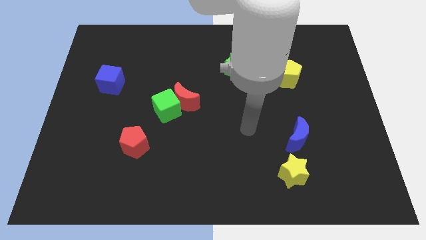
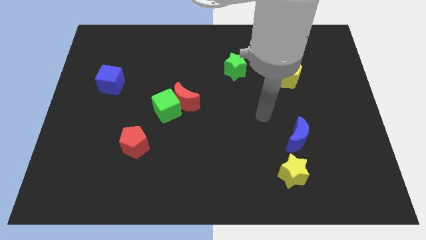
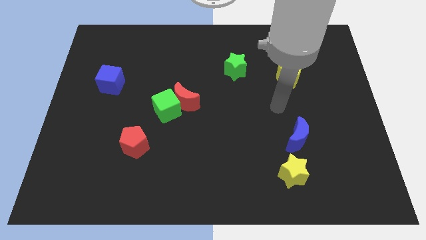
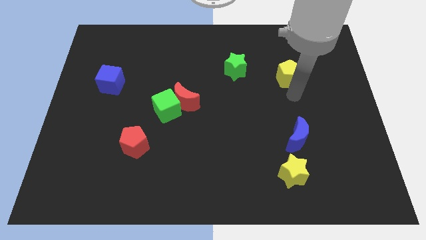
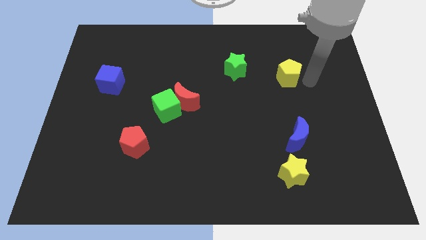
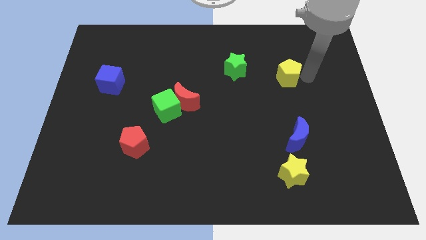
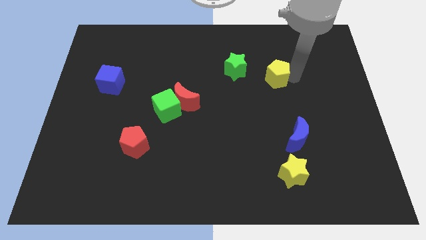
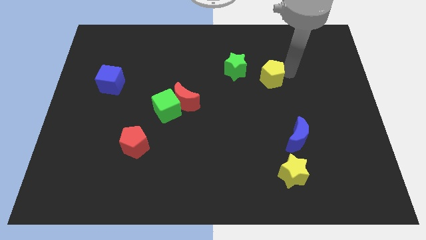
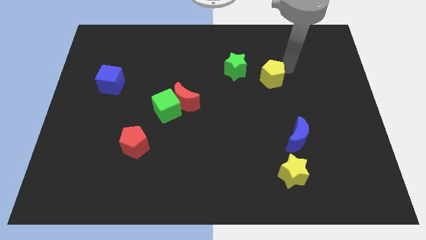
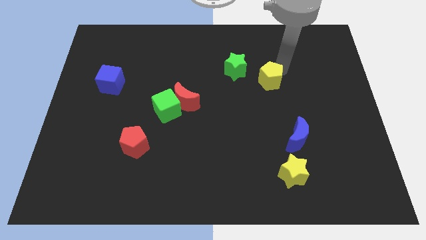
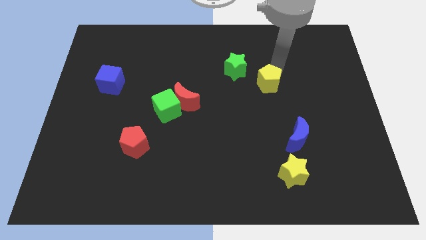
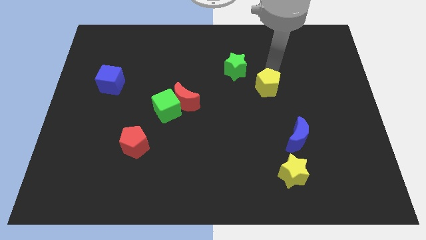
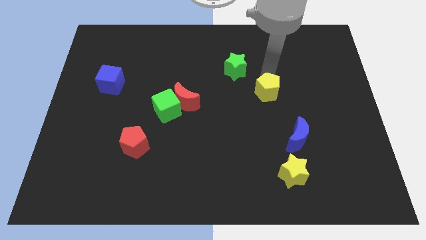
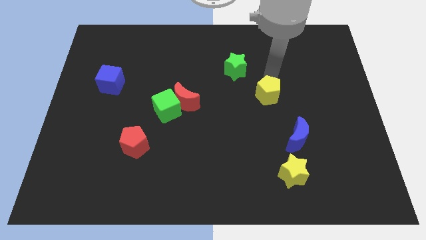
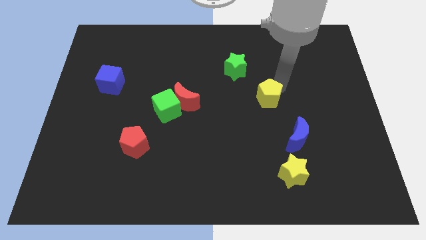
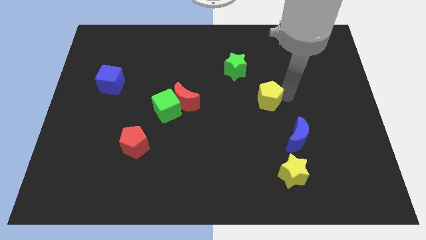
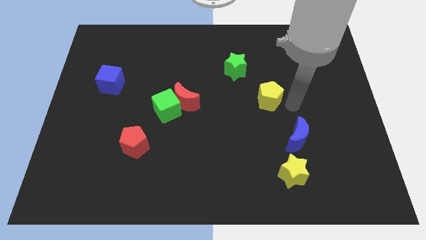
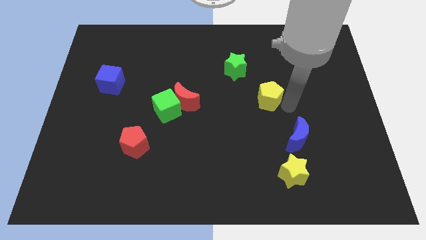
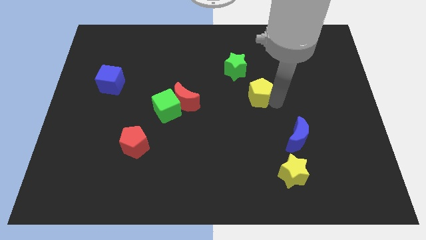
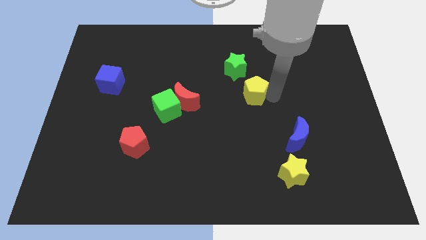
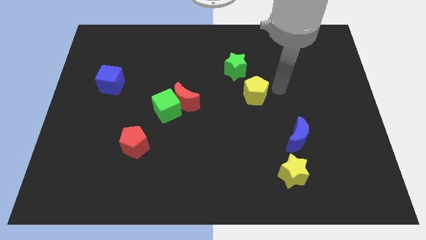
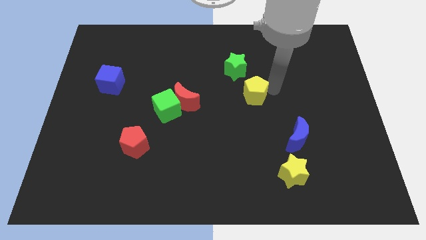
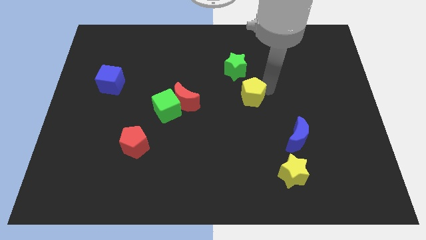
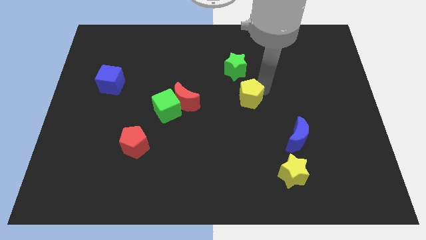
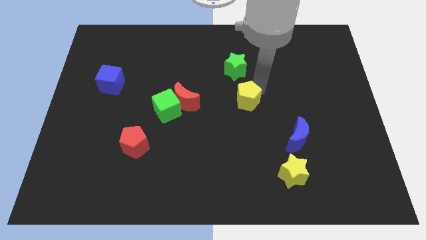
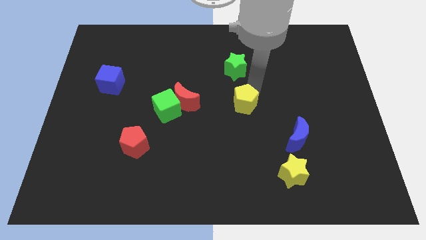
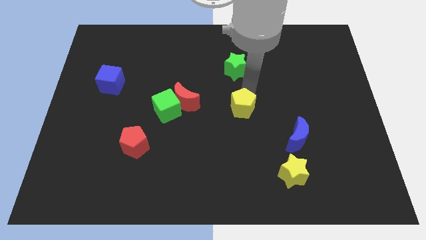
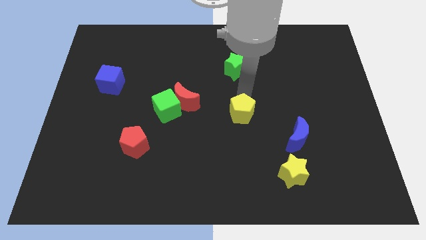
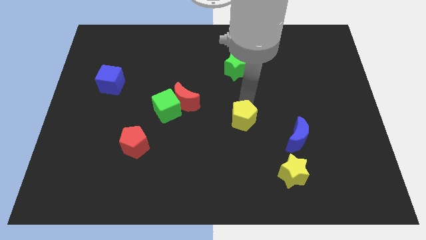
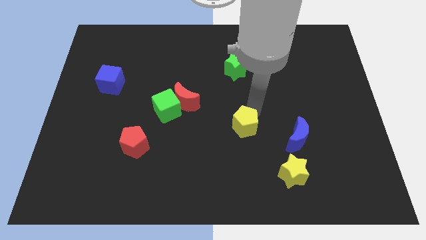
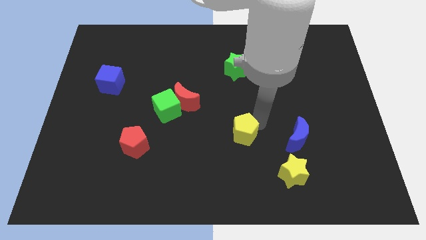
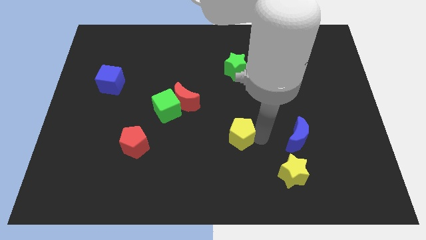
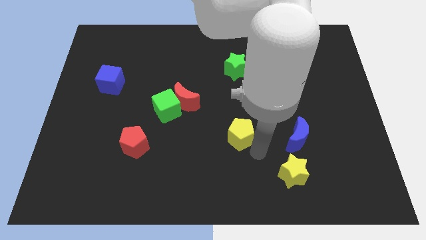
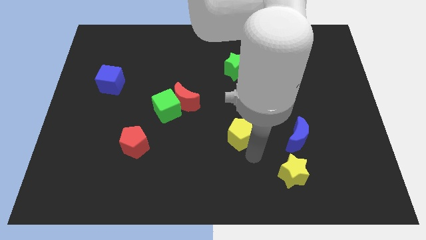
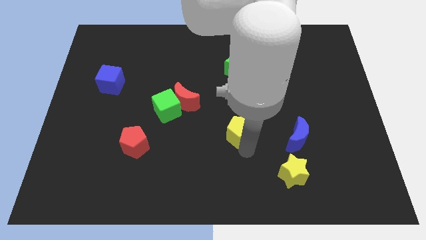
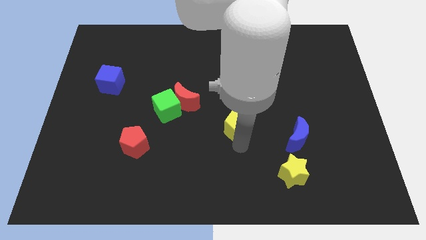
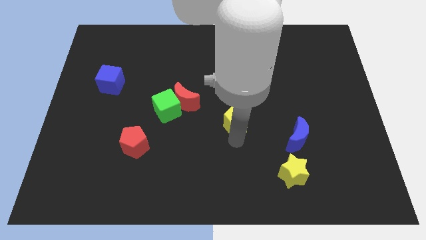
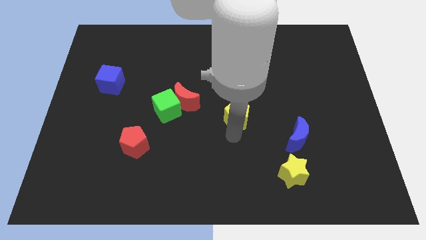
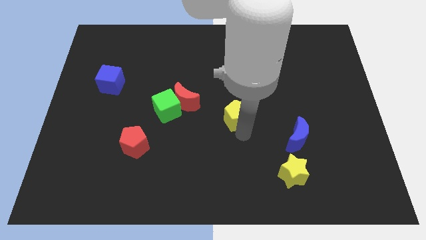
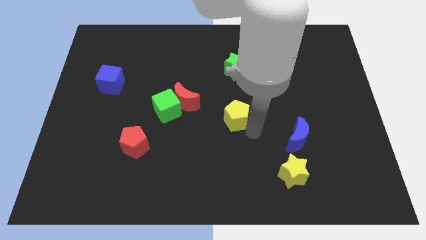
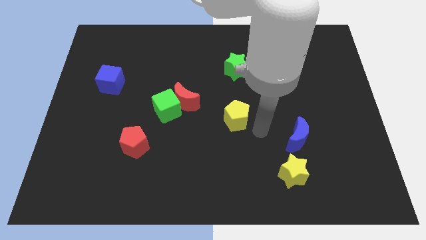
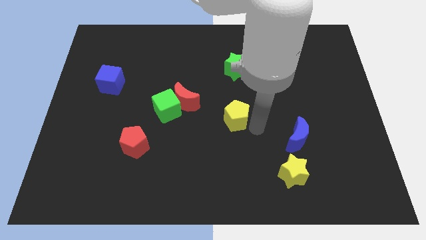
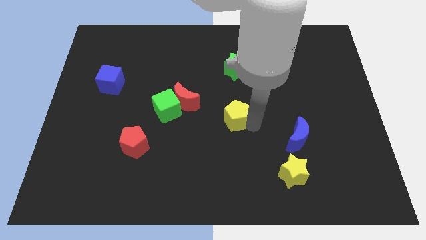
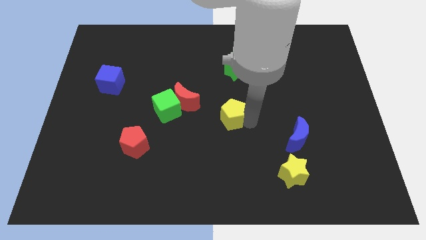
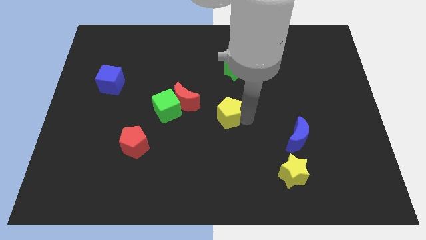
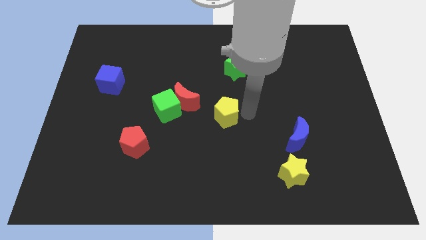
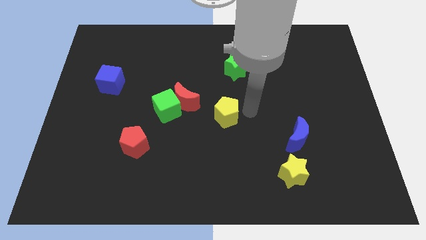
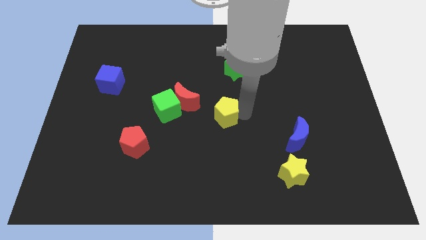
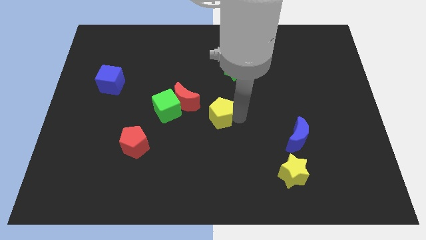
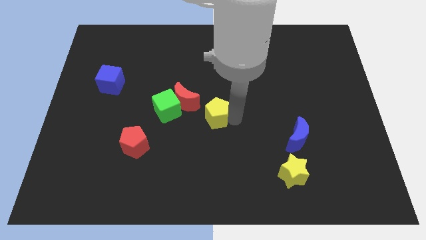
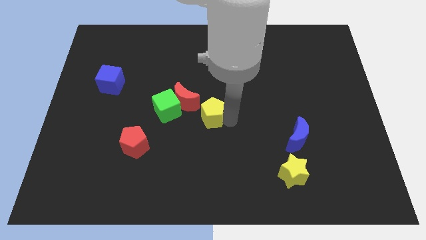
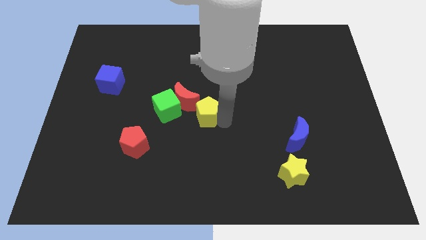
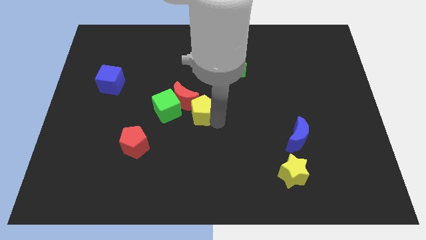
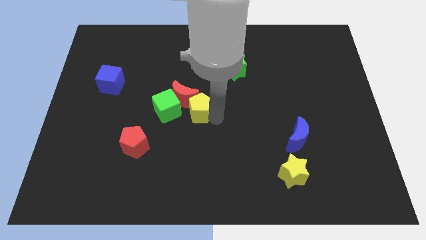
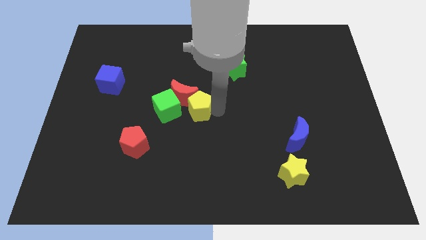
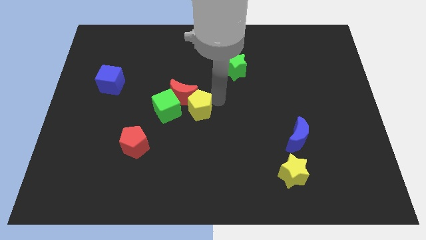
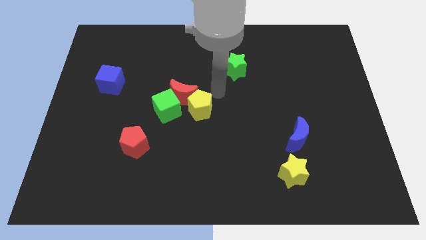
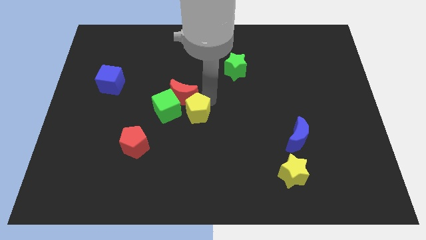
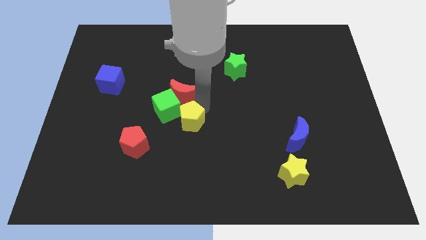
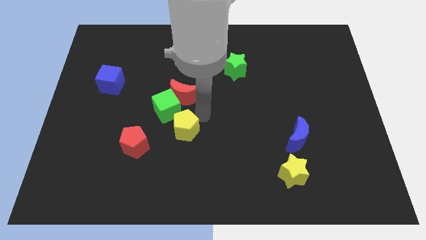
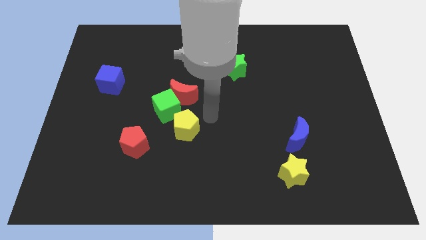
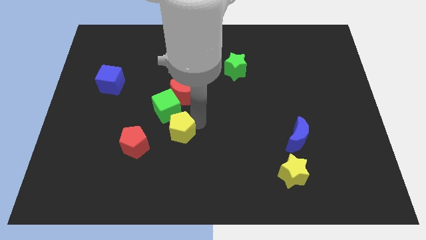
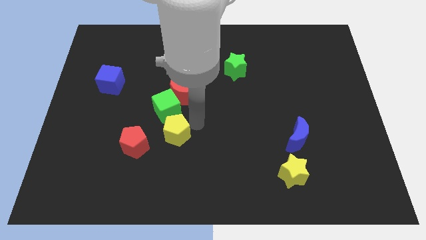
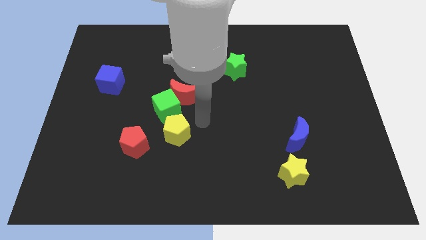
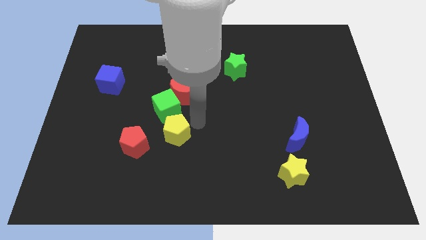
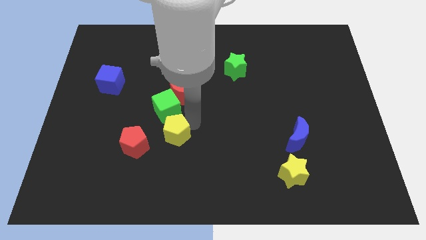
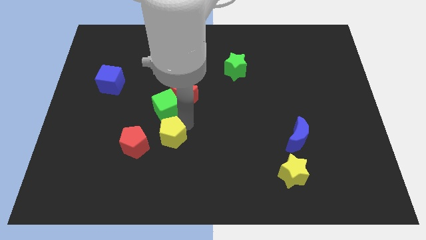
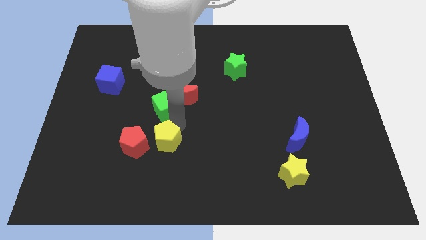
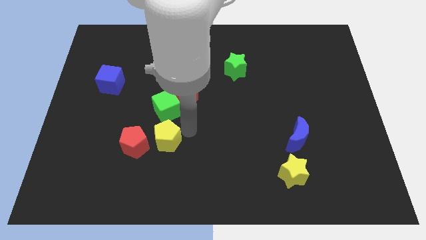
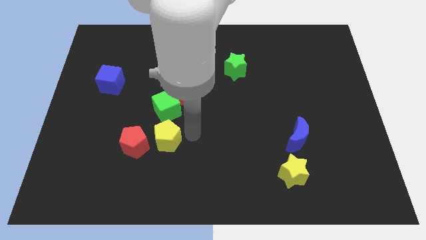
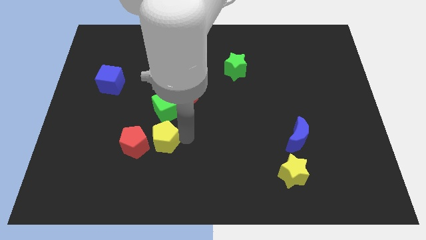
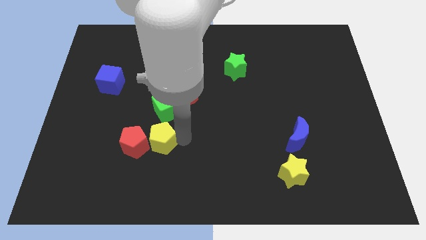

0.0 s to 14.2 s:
put the yellow pentagon close to the red pentagon

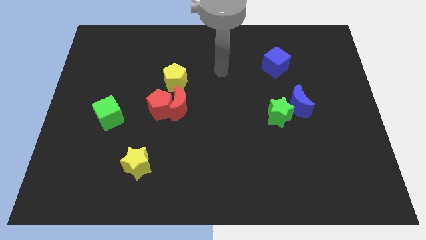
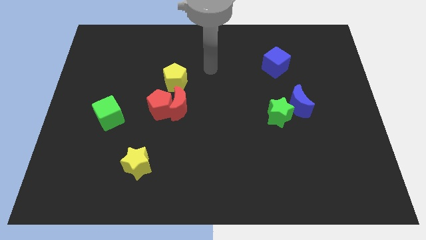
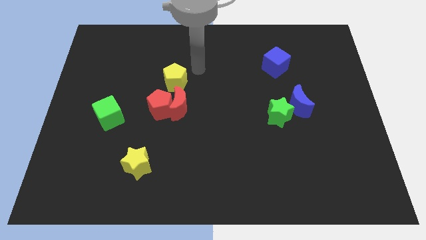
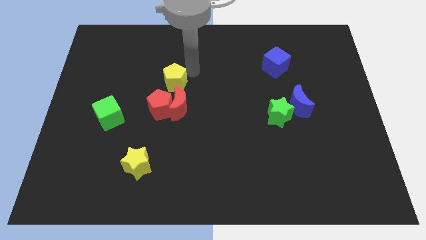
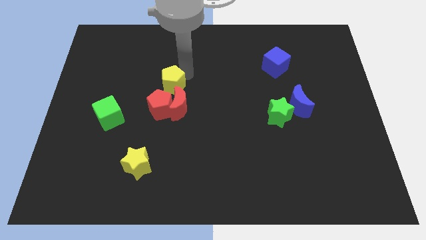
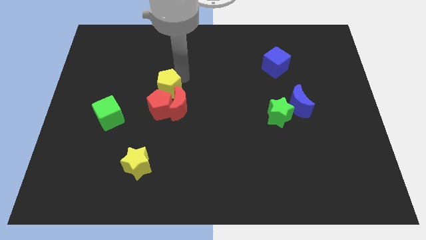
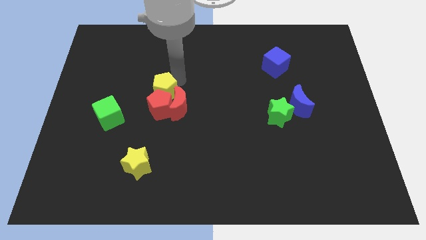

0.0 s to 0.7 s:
move the yellow pentagon towards the red pentagon
